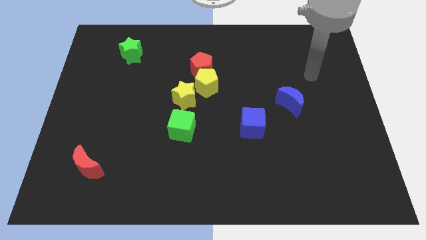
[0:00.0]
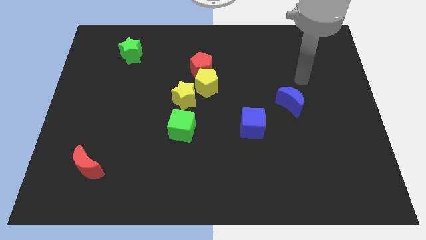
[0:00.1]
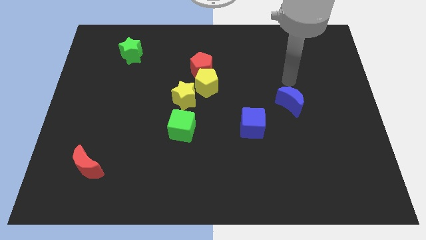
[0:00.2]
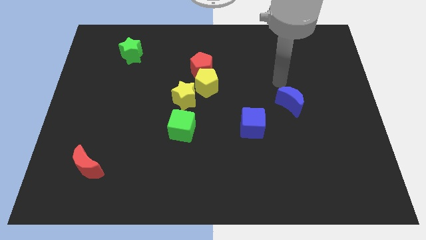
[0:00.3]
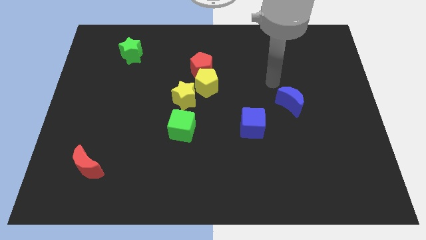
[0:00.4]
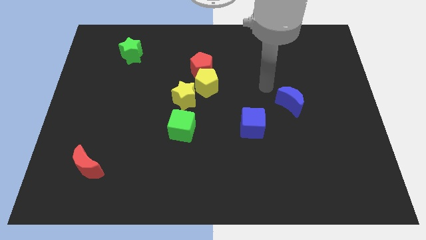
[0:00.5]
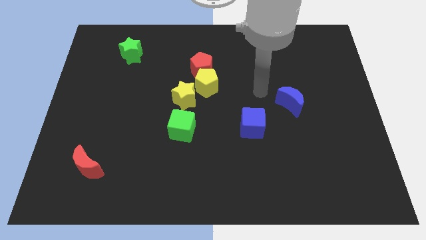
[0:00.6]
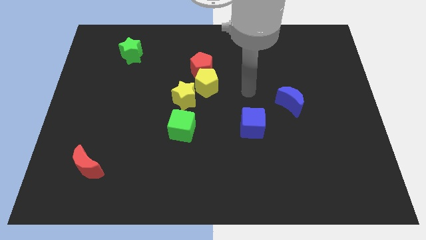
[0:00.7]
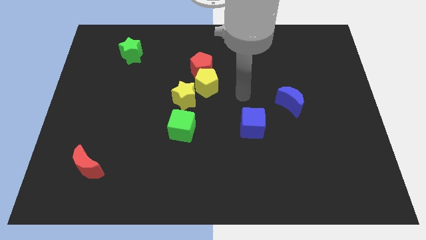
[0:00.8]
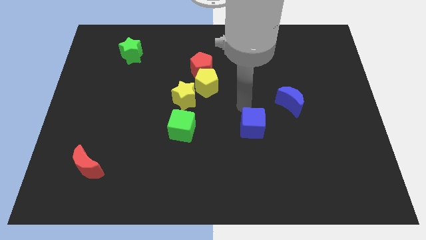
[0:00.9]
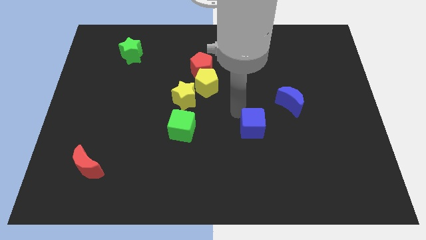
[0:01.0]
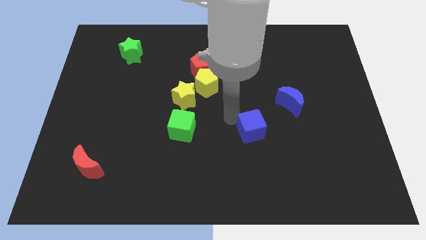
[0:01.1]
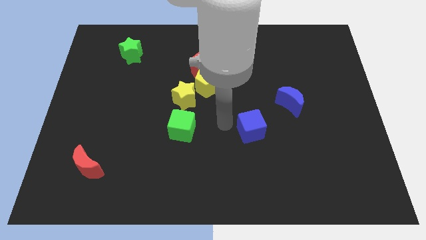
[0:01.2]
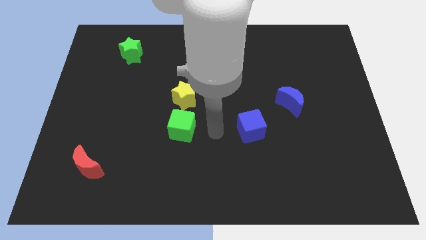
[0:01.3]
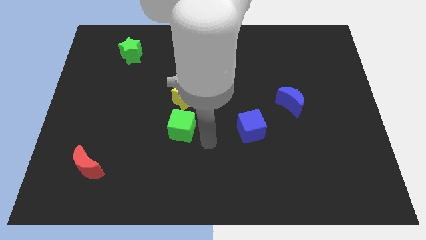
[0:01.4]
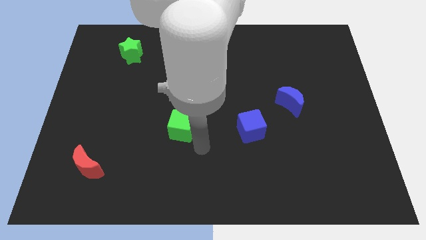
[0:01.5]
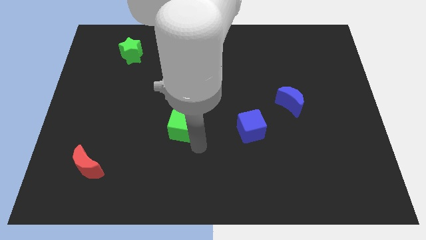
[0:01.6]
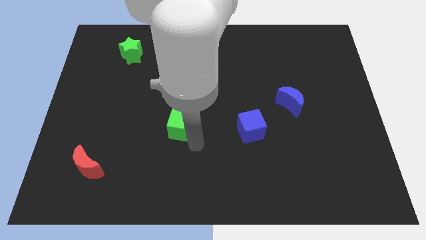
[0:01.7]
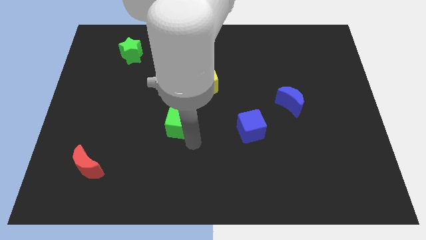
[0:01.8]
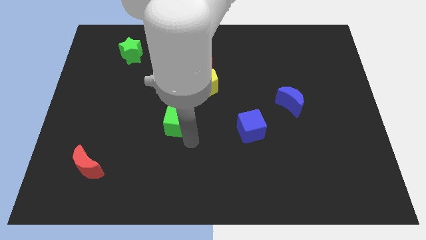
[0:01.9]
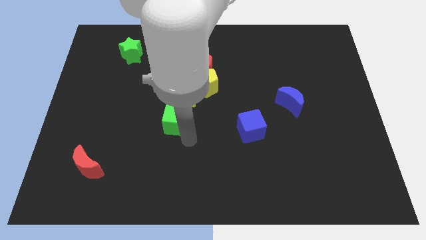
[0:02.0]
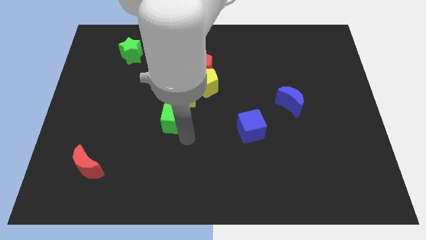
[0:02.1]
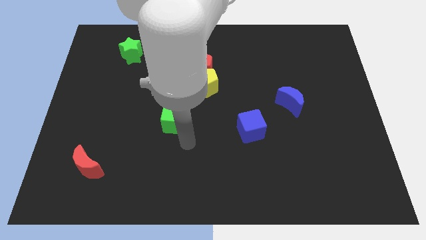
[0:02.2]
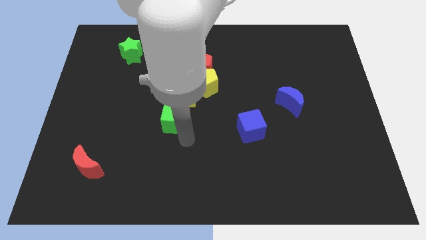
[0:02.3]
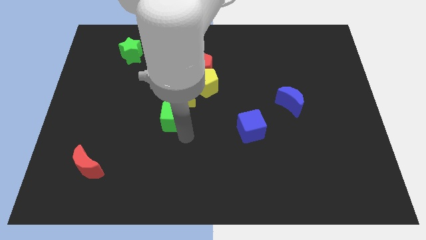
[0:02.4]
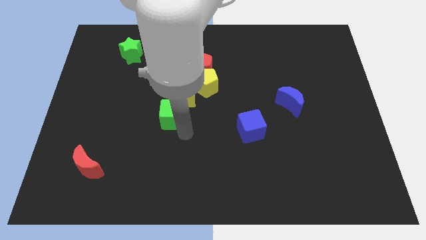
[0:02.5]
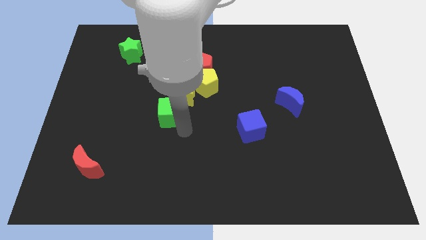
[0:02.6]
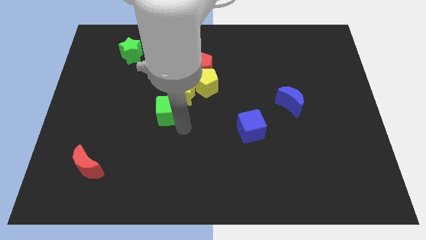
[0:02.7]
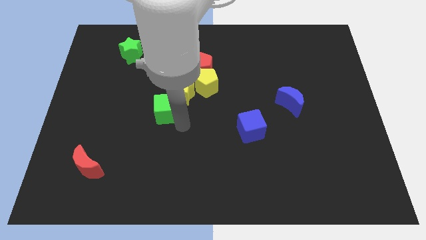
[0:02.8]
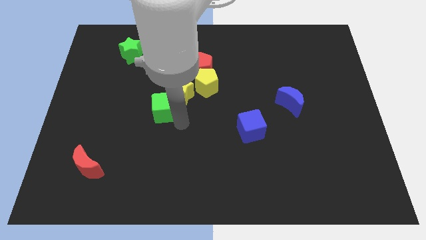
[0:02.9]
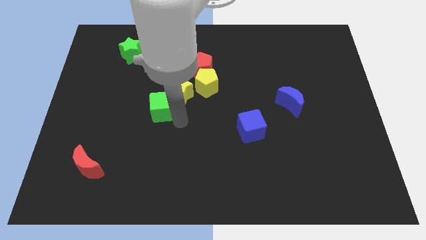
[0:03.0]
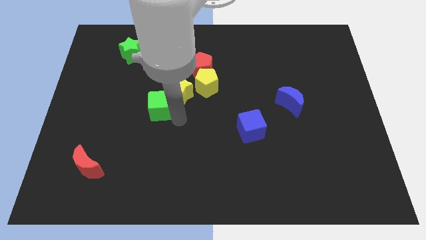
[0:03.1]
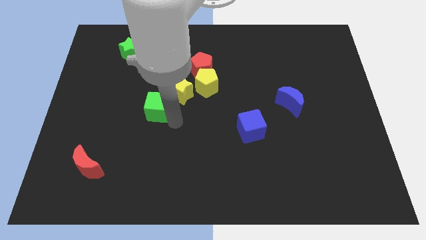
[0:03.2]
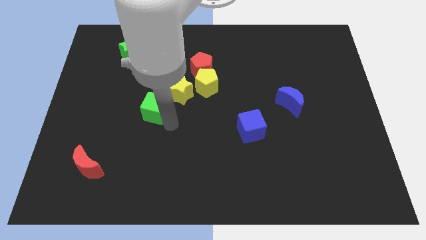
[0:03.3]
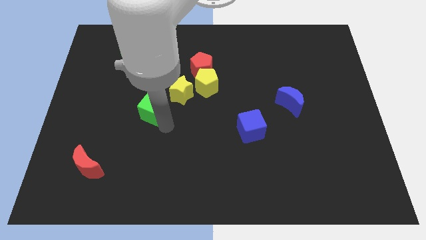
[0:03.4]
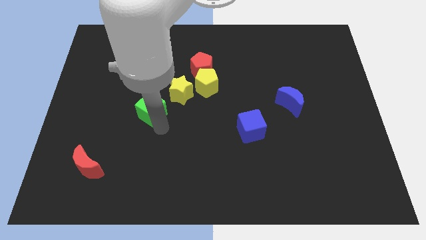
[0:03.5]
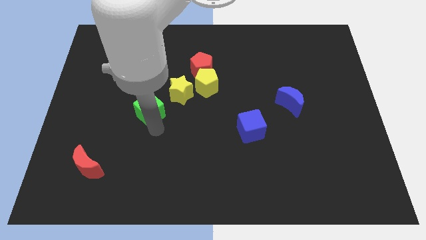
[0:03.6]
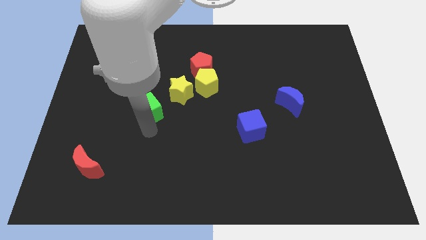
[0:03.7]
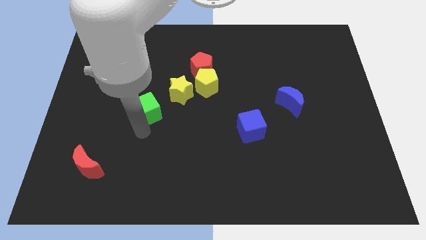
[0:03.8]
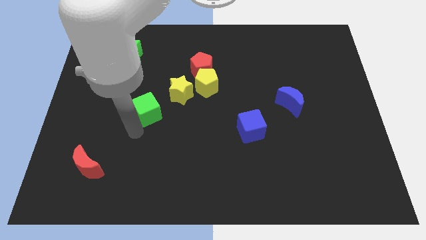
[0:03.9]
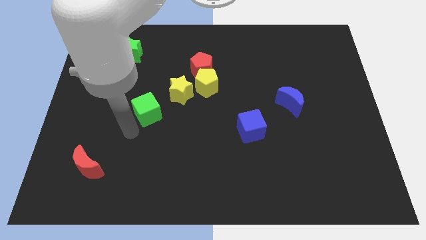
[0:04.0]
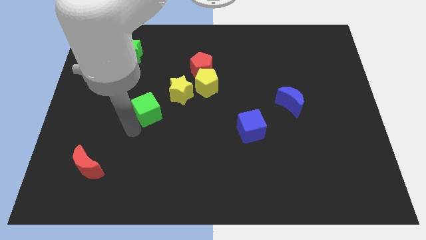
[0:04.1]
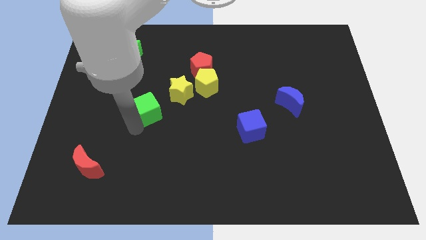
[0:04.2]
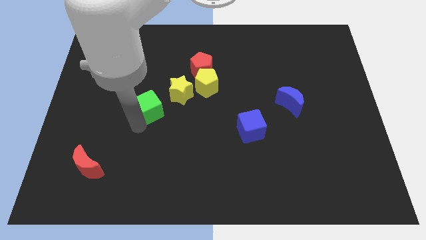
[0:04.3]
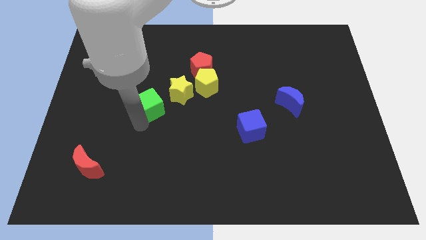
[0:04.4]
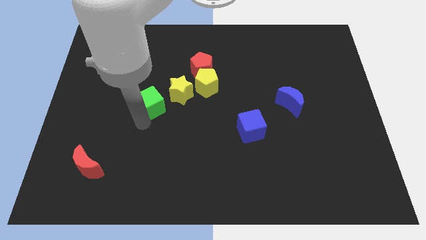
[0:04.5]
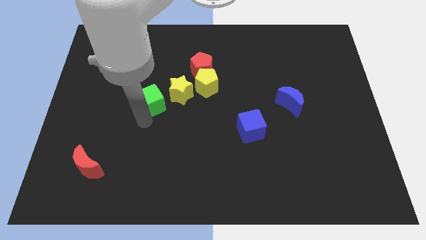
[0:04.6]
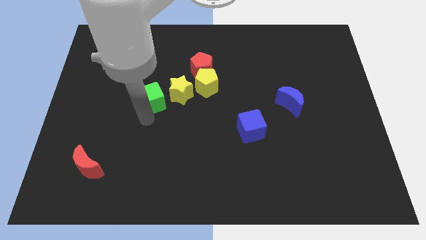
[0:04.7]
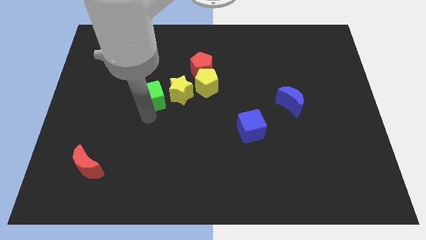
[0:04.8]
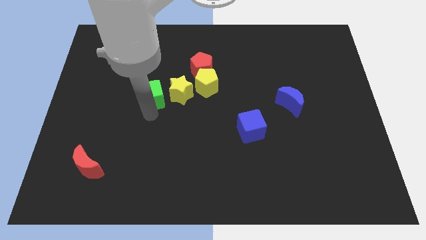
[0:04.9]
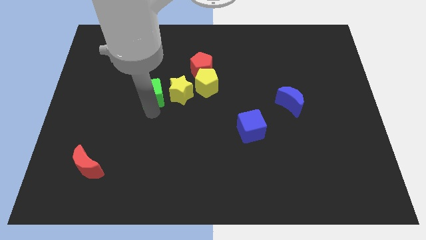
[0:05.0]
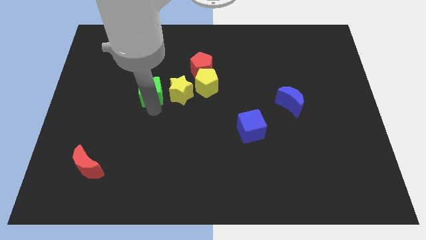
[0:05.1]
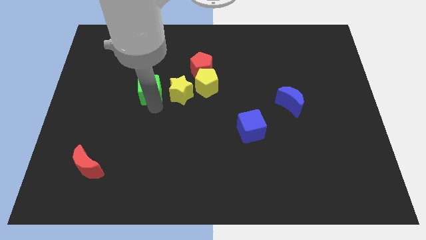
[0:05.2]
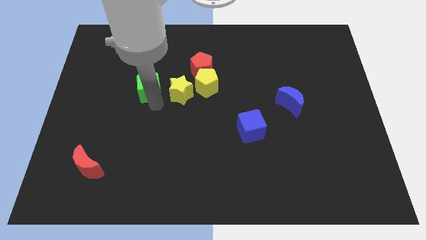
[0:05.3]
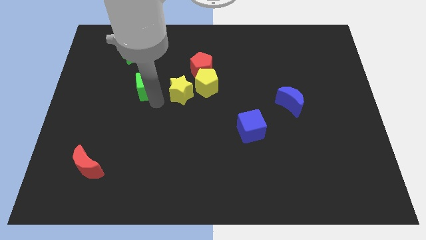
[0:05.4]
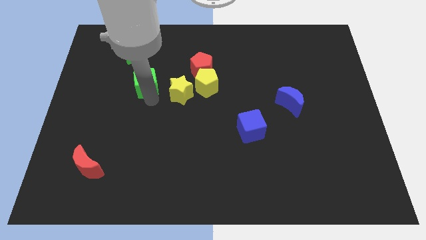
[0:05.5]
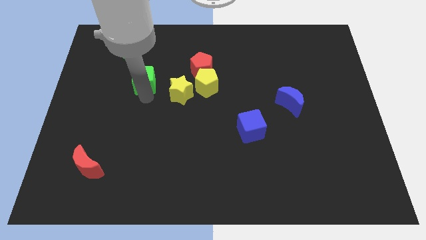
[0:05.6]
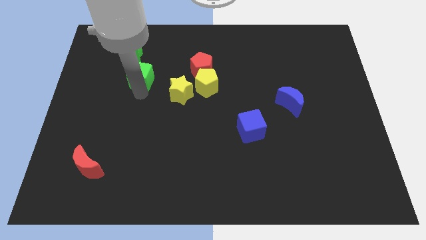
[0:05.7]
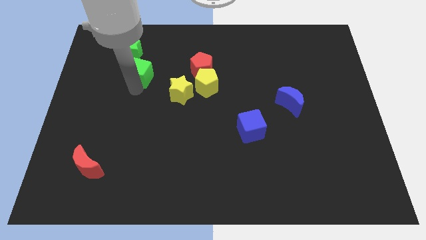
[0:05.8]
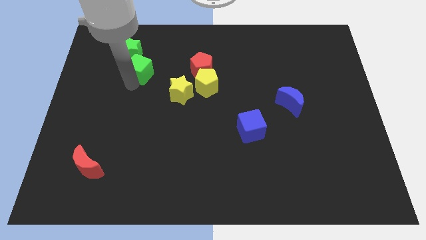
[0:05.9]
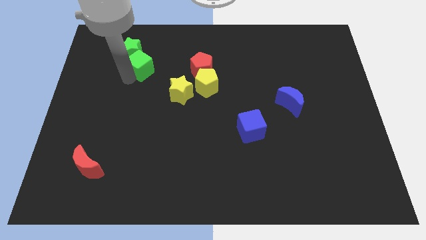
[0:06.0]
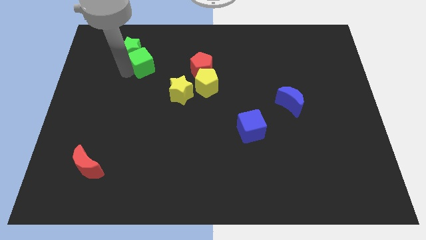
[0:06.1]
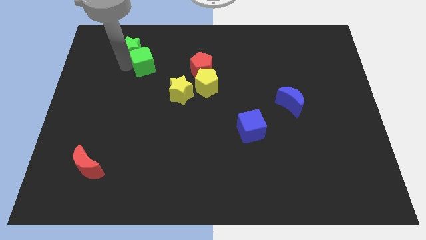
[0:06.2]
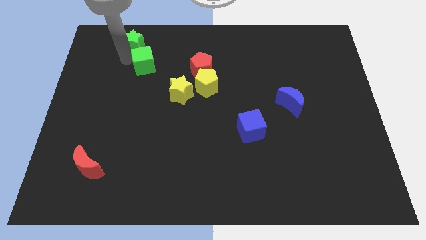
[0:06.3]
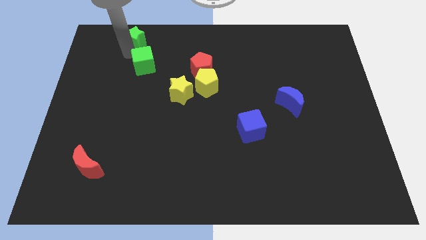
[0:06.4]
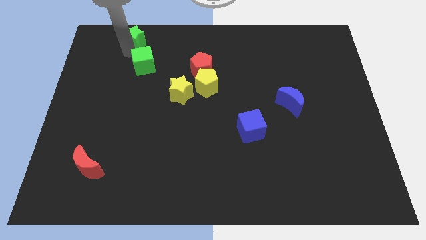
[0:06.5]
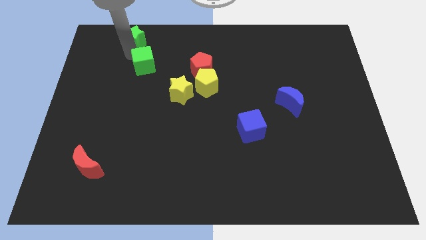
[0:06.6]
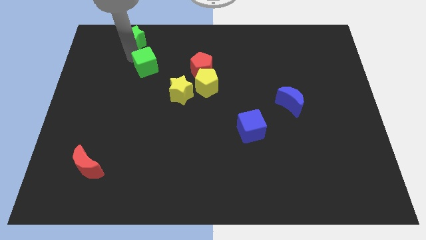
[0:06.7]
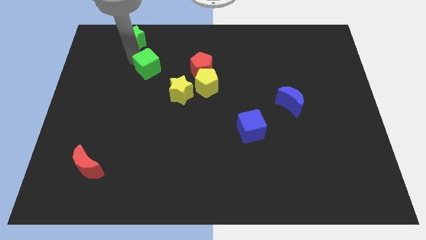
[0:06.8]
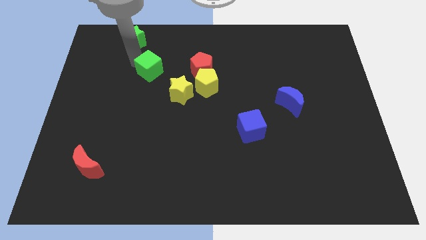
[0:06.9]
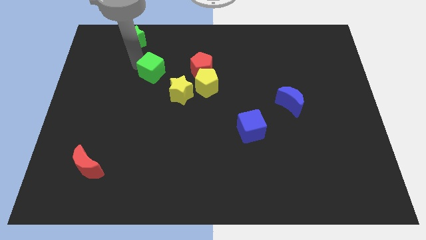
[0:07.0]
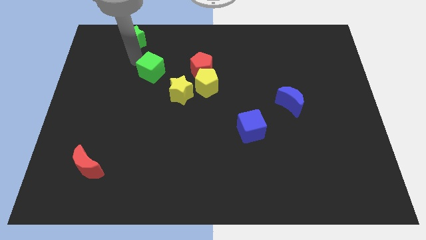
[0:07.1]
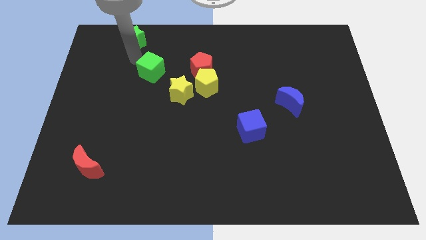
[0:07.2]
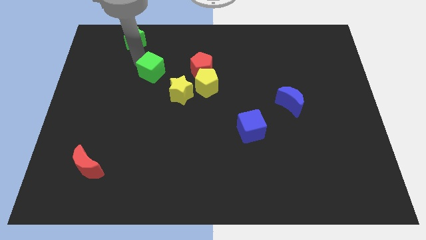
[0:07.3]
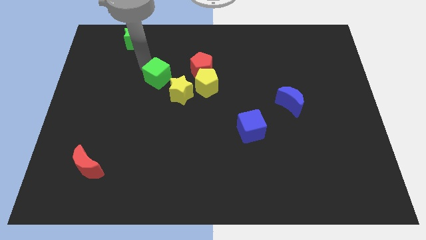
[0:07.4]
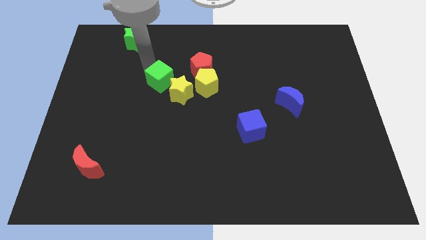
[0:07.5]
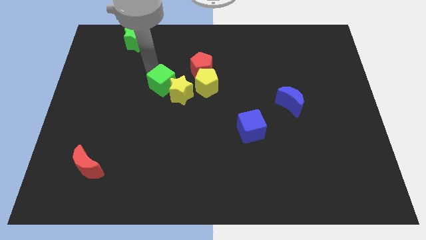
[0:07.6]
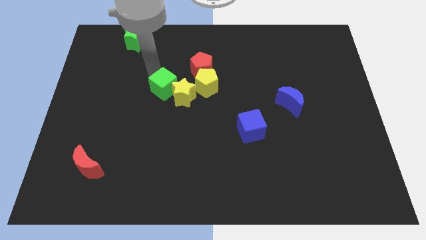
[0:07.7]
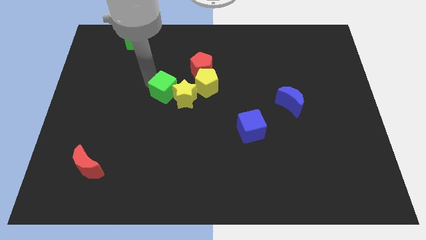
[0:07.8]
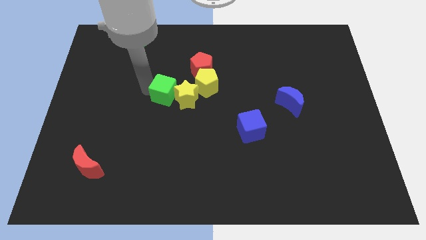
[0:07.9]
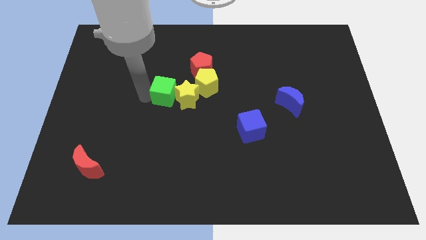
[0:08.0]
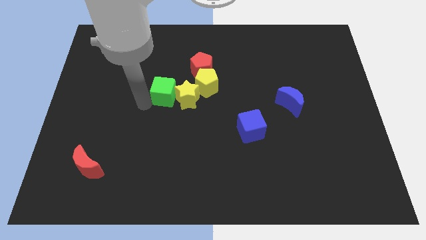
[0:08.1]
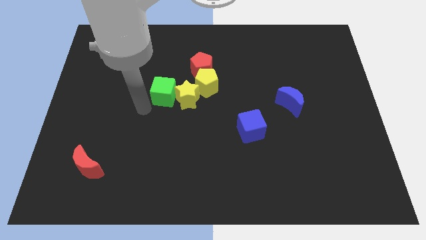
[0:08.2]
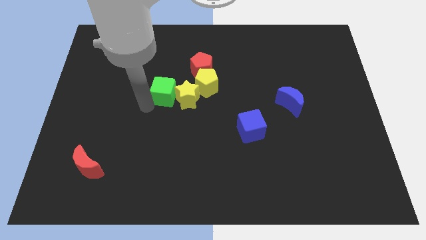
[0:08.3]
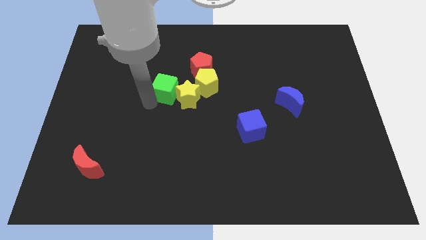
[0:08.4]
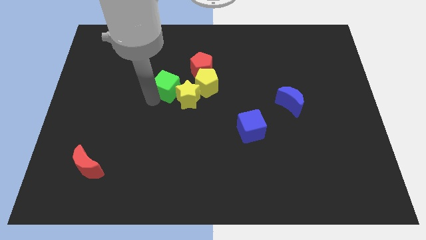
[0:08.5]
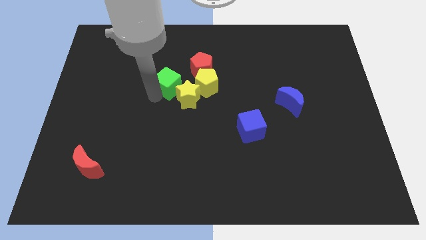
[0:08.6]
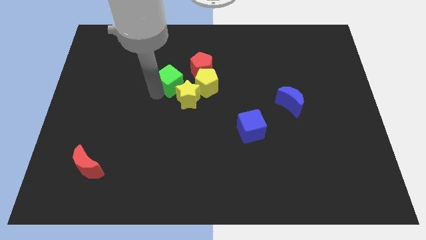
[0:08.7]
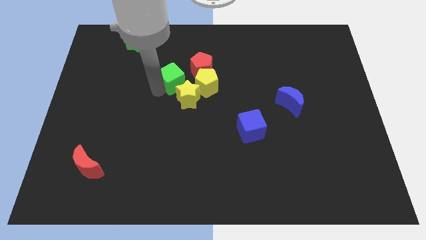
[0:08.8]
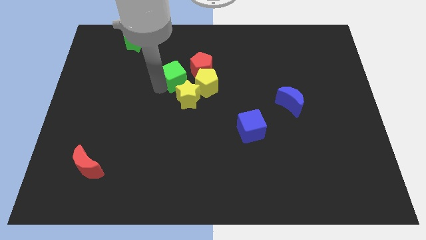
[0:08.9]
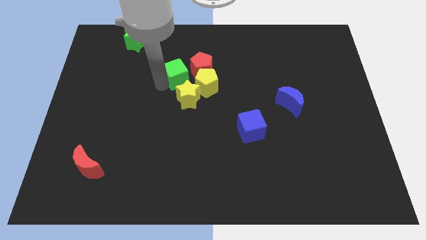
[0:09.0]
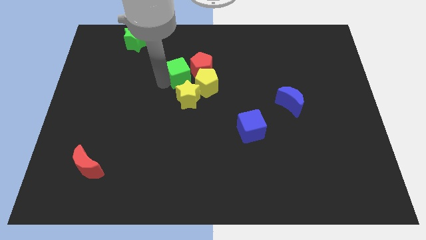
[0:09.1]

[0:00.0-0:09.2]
push the green cube close to the red pentagon
